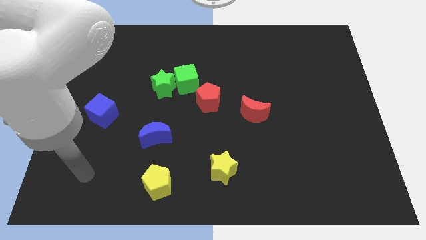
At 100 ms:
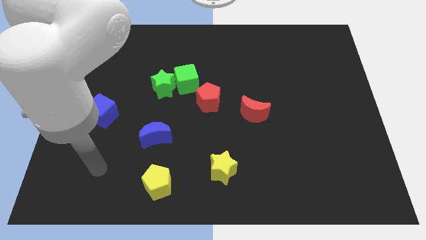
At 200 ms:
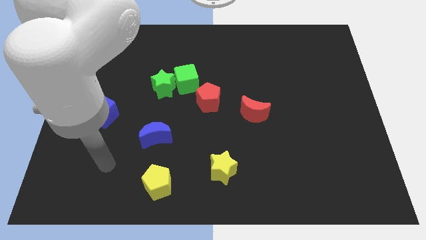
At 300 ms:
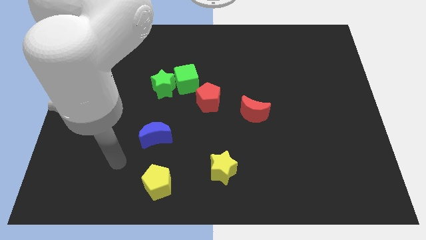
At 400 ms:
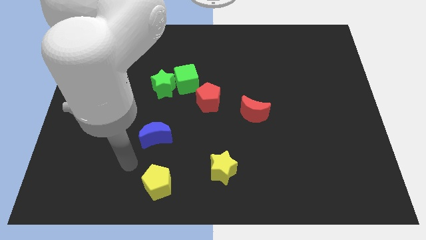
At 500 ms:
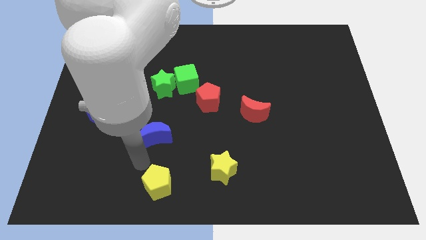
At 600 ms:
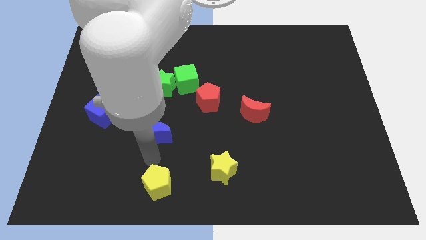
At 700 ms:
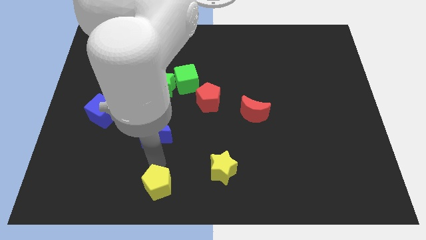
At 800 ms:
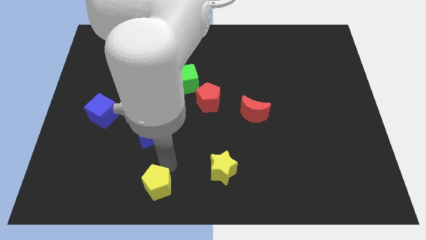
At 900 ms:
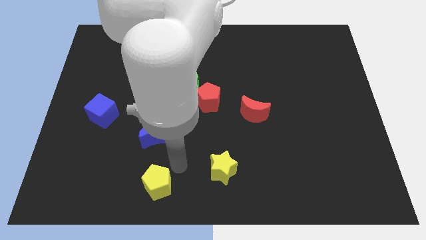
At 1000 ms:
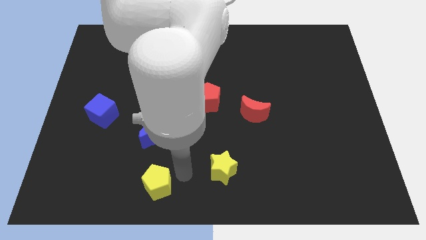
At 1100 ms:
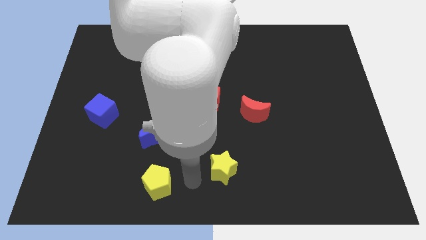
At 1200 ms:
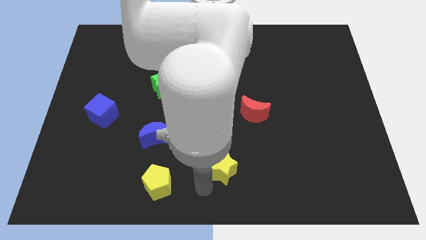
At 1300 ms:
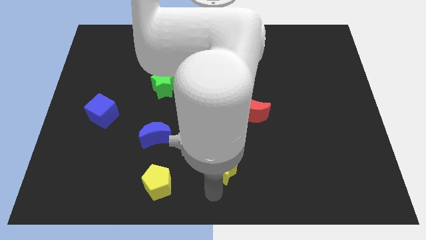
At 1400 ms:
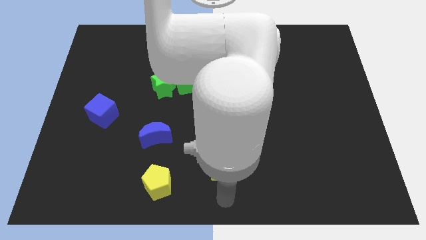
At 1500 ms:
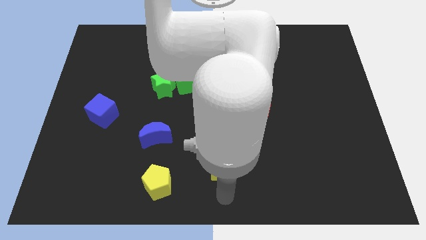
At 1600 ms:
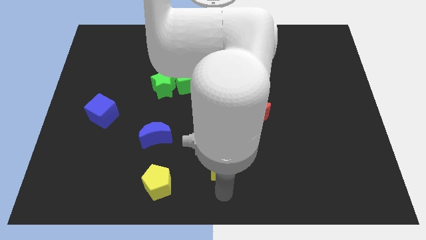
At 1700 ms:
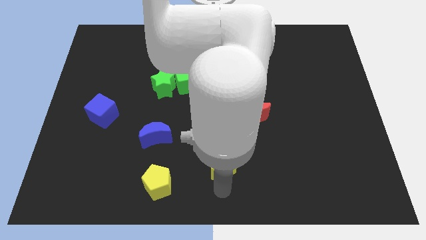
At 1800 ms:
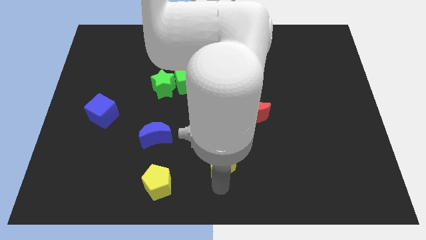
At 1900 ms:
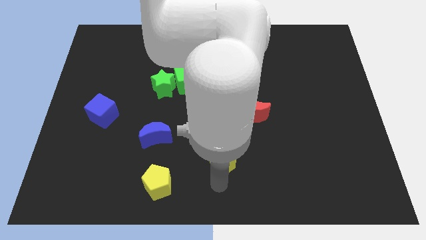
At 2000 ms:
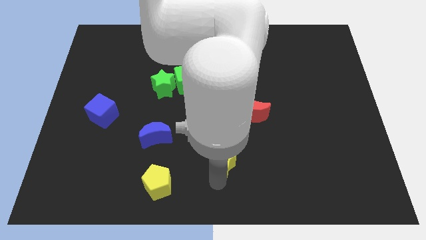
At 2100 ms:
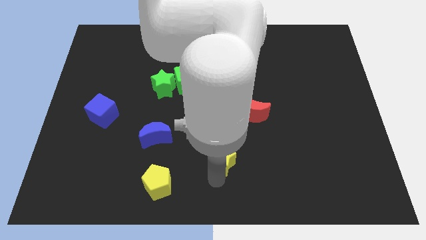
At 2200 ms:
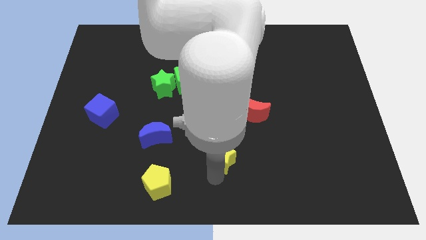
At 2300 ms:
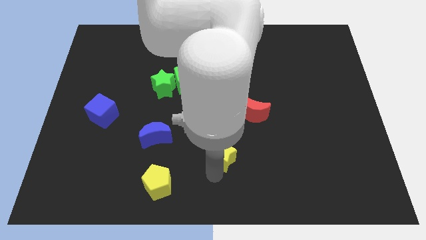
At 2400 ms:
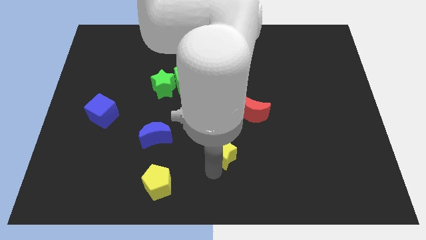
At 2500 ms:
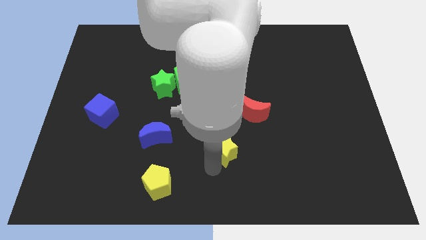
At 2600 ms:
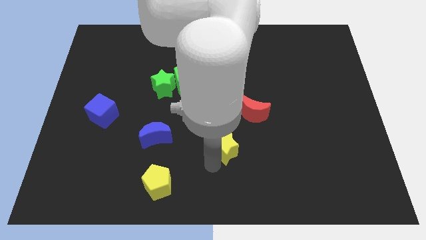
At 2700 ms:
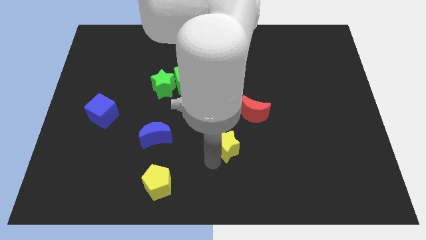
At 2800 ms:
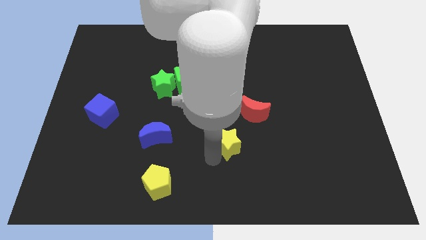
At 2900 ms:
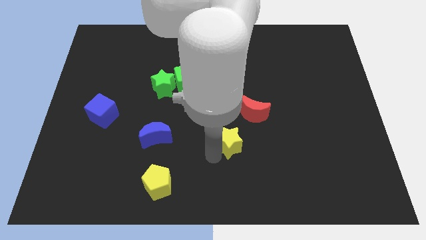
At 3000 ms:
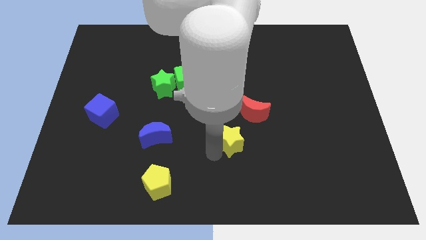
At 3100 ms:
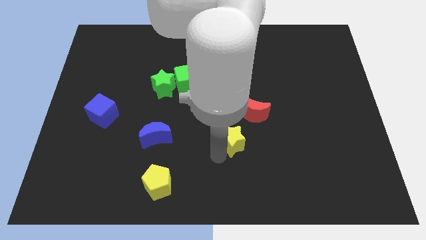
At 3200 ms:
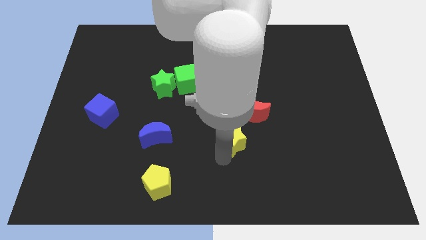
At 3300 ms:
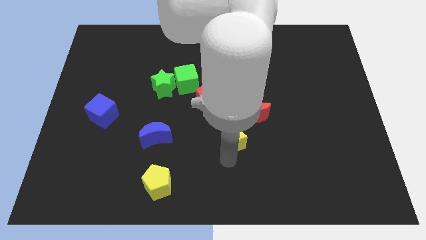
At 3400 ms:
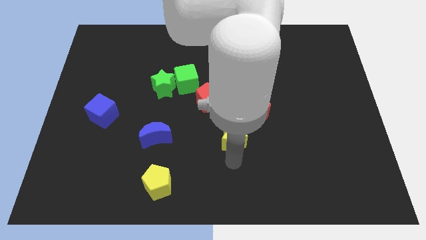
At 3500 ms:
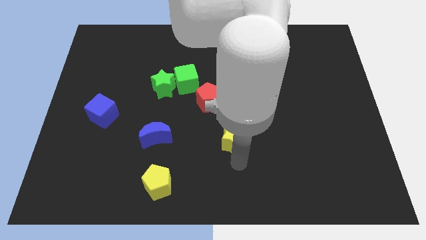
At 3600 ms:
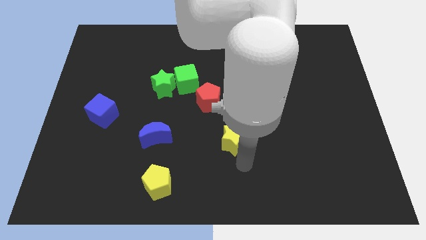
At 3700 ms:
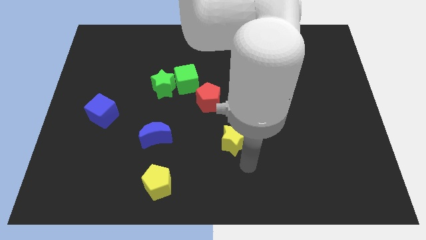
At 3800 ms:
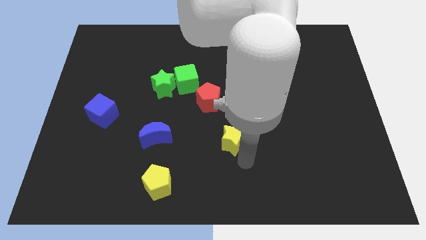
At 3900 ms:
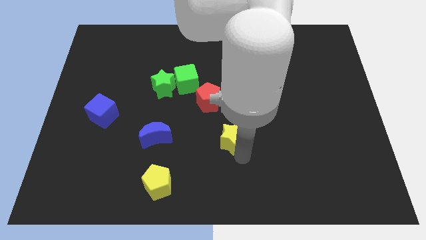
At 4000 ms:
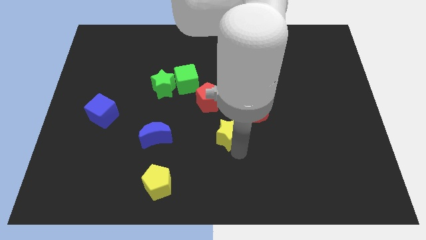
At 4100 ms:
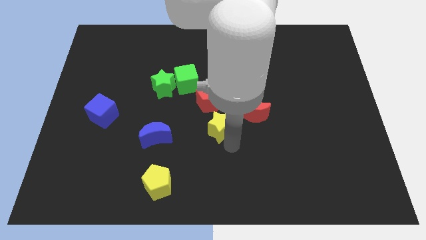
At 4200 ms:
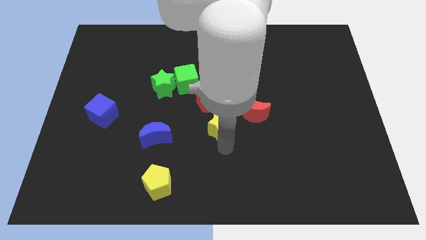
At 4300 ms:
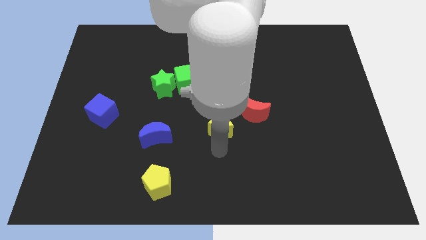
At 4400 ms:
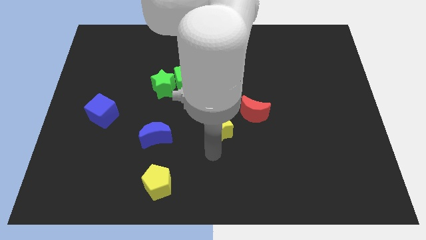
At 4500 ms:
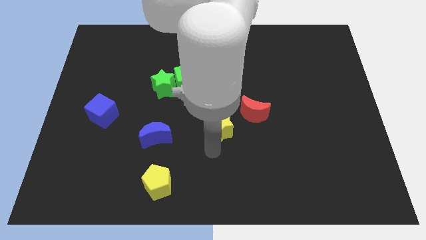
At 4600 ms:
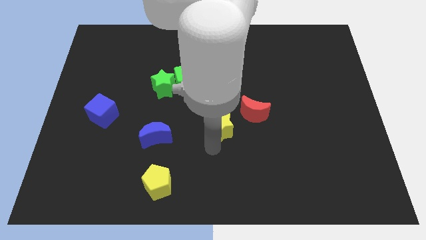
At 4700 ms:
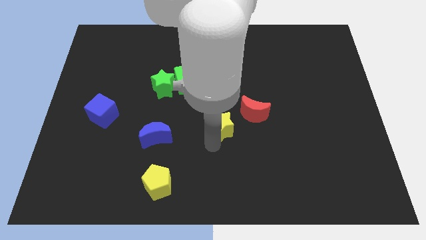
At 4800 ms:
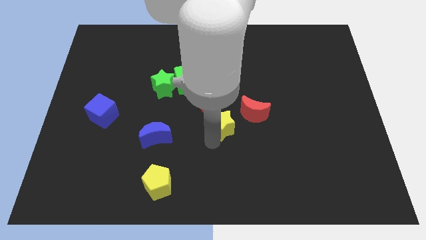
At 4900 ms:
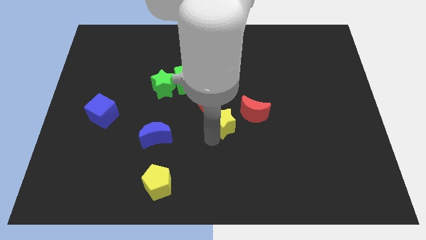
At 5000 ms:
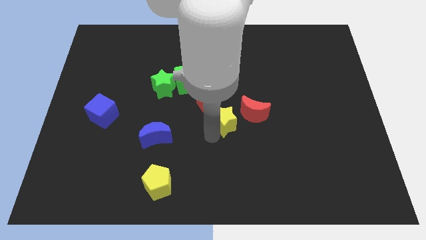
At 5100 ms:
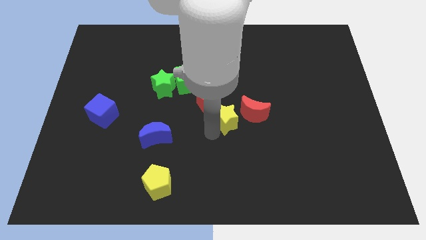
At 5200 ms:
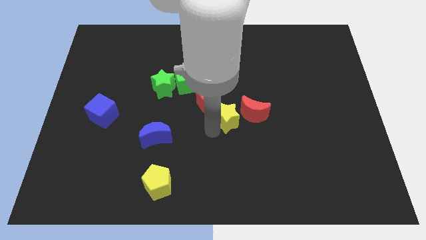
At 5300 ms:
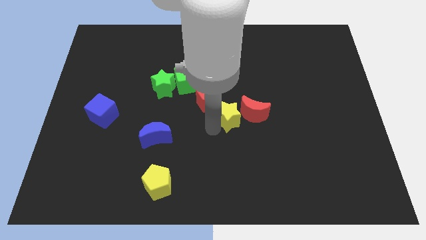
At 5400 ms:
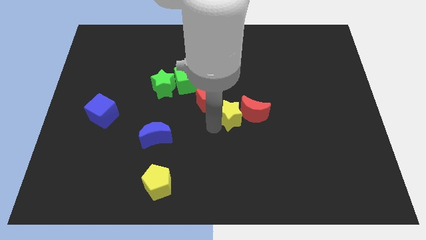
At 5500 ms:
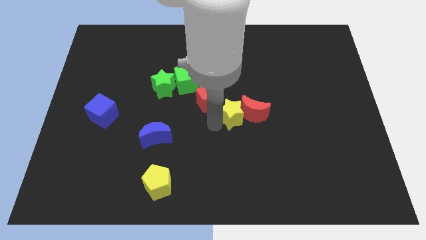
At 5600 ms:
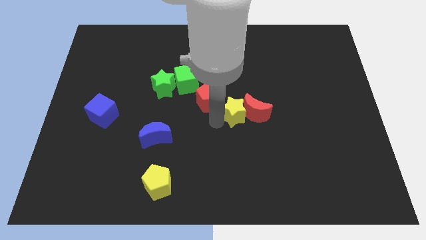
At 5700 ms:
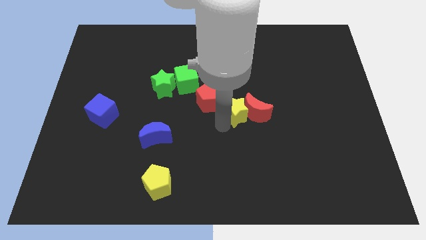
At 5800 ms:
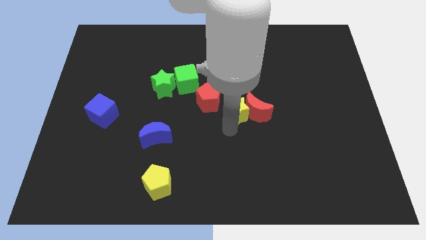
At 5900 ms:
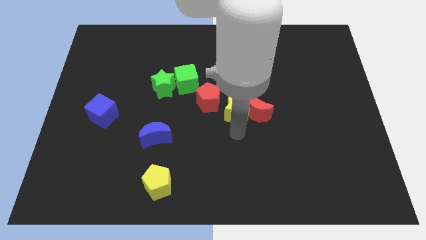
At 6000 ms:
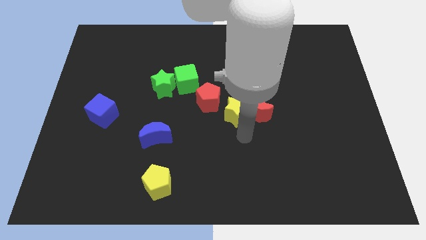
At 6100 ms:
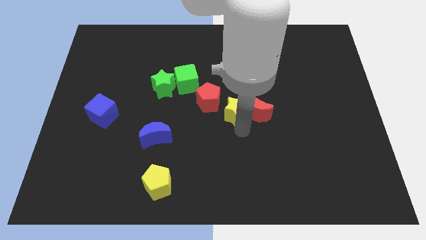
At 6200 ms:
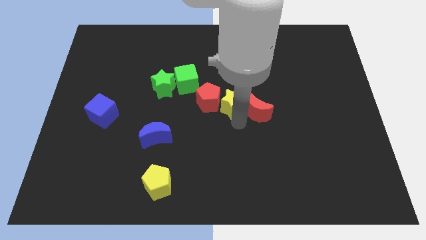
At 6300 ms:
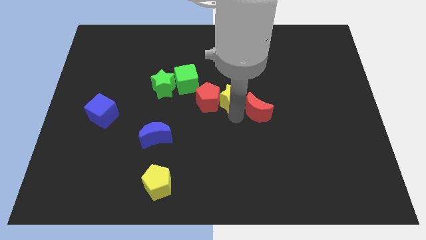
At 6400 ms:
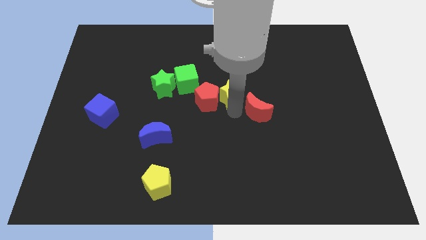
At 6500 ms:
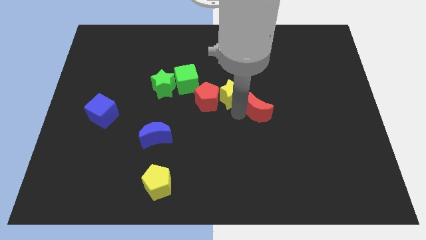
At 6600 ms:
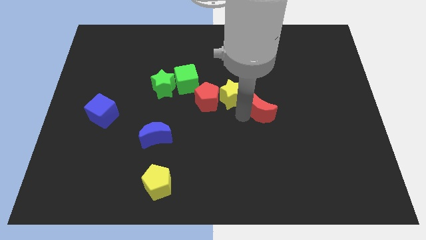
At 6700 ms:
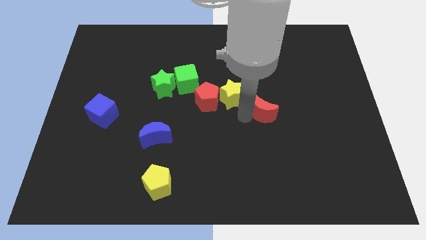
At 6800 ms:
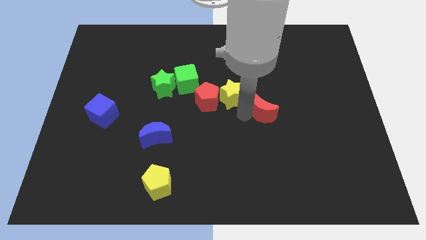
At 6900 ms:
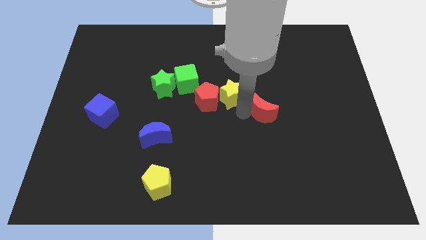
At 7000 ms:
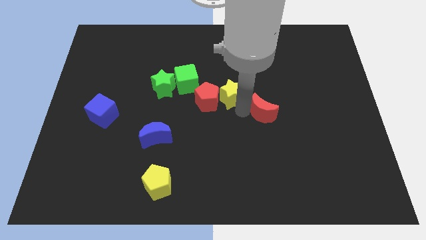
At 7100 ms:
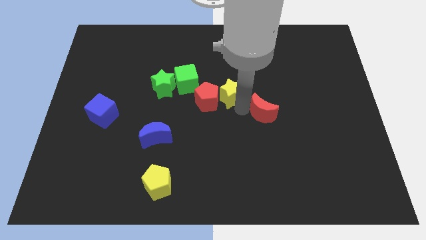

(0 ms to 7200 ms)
slide the yellow star upwards

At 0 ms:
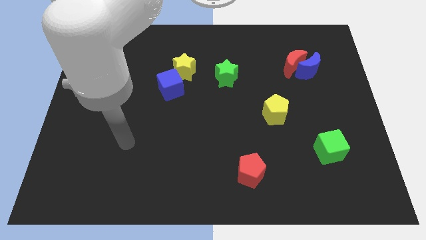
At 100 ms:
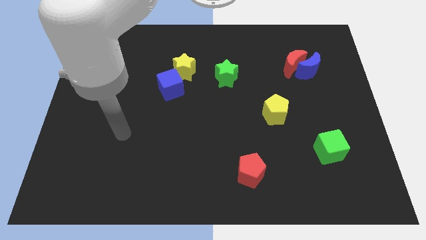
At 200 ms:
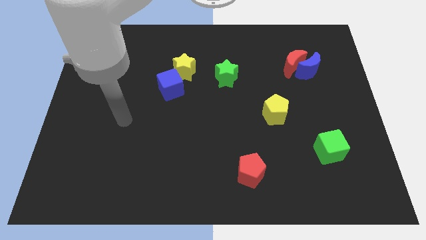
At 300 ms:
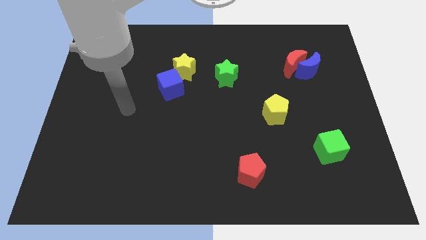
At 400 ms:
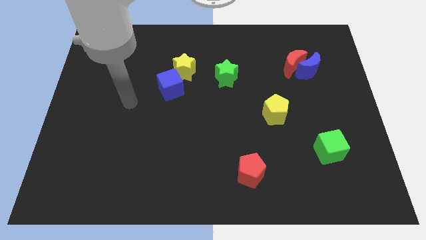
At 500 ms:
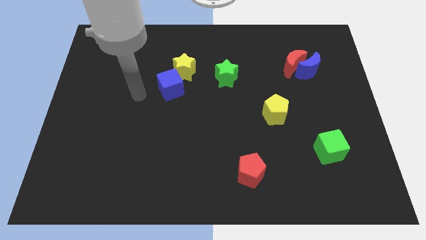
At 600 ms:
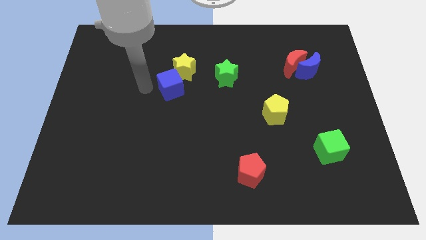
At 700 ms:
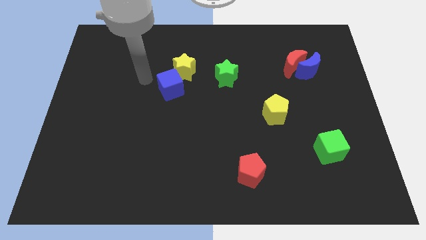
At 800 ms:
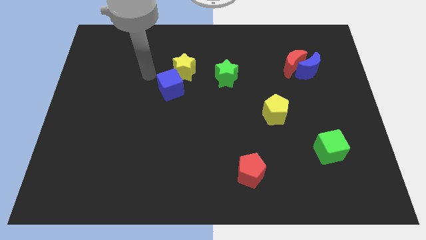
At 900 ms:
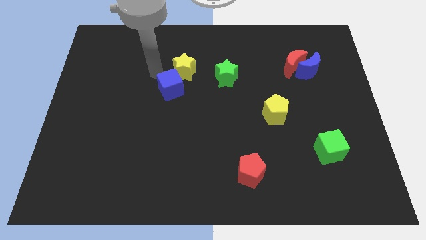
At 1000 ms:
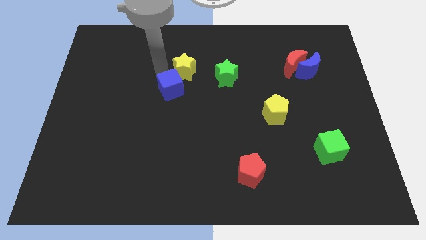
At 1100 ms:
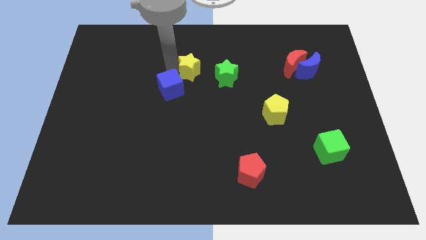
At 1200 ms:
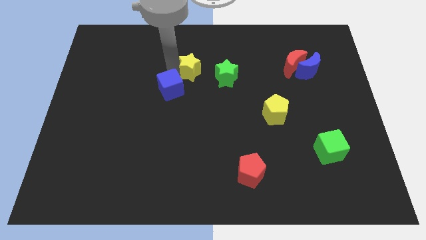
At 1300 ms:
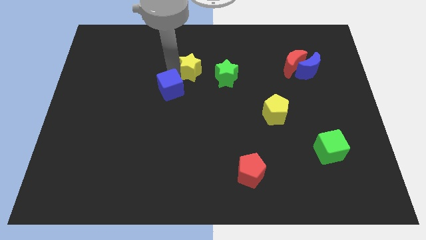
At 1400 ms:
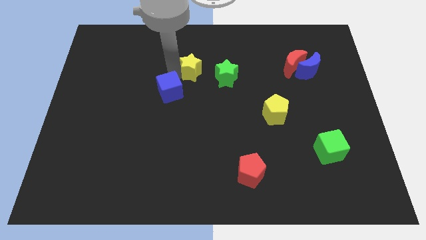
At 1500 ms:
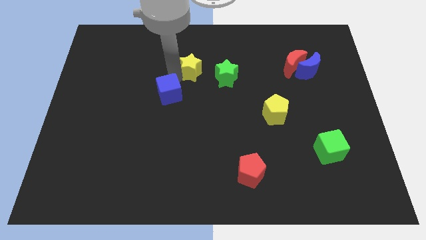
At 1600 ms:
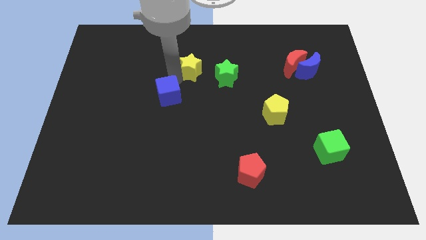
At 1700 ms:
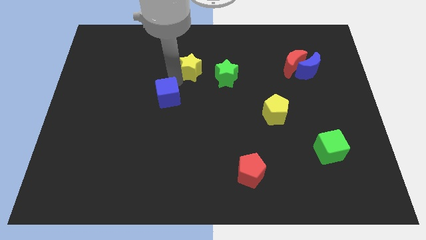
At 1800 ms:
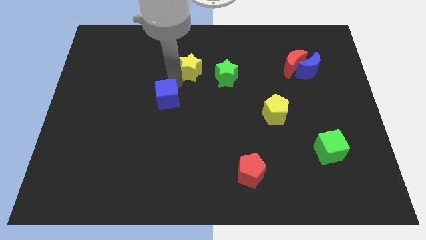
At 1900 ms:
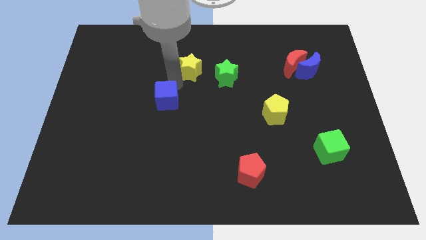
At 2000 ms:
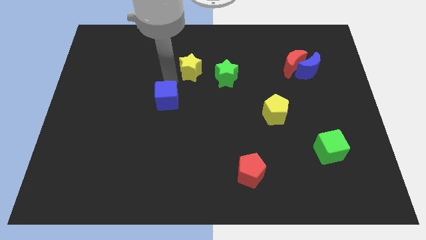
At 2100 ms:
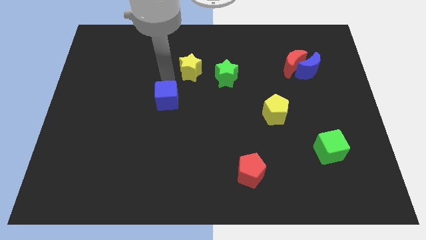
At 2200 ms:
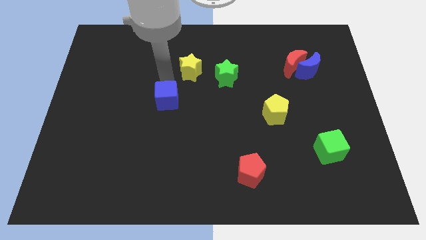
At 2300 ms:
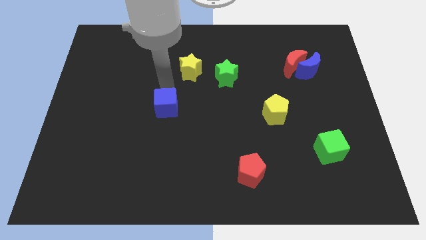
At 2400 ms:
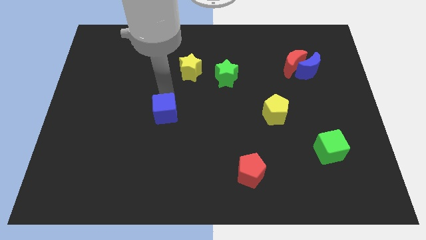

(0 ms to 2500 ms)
slide the blue cube downwards a little
